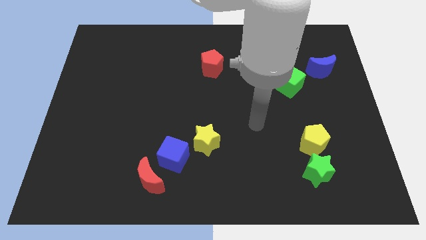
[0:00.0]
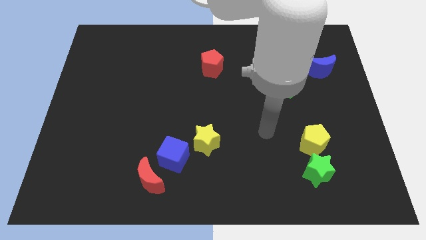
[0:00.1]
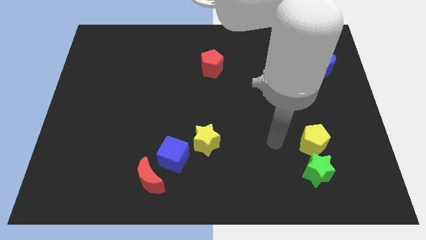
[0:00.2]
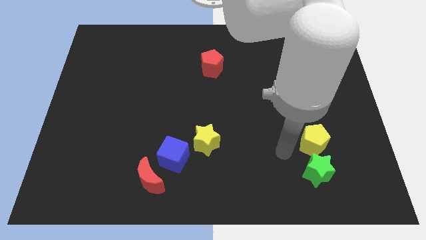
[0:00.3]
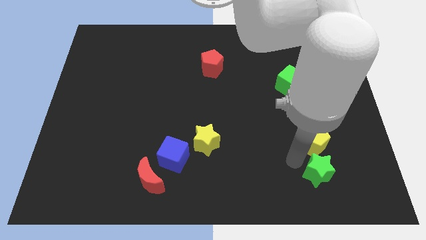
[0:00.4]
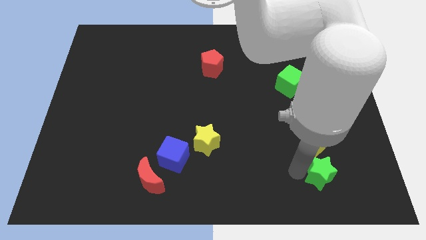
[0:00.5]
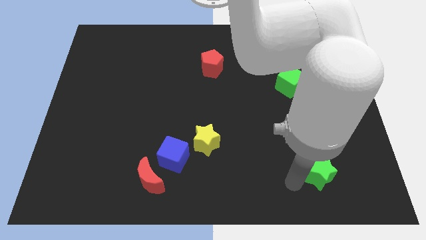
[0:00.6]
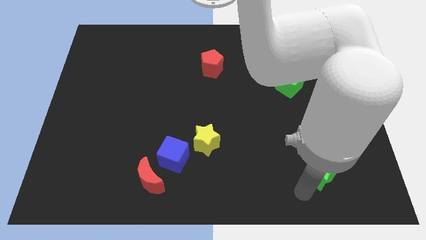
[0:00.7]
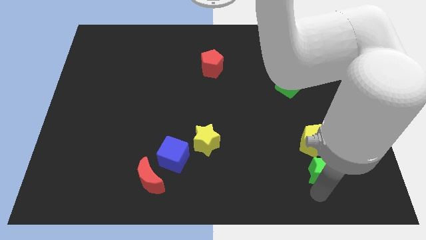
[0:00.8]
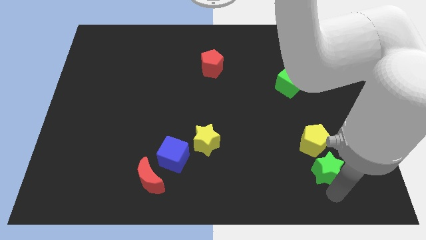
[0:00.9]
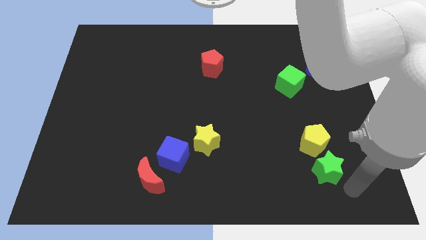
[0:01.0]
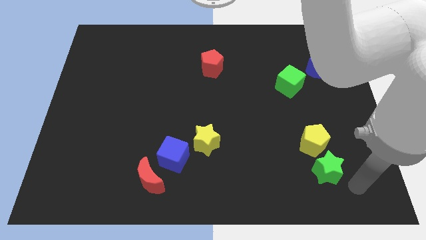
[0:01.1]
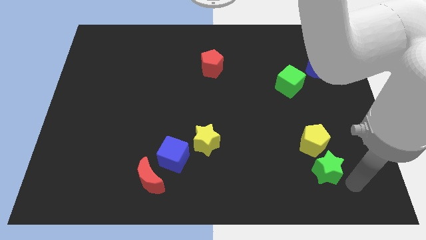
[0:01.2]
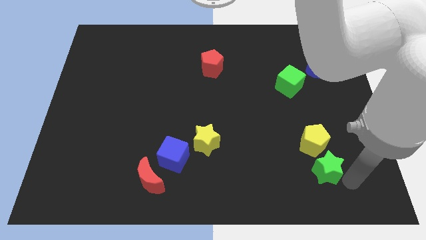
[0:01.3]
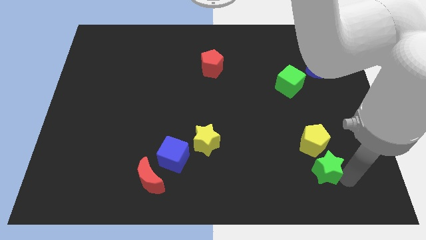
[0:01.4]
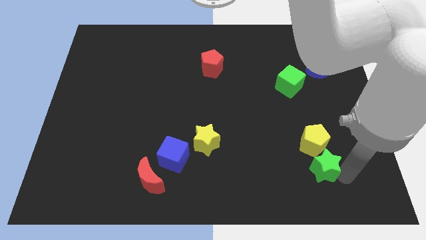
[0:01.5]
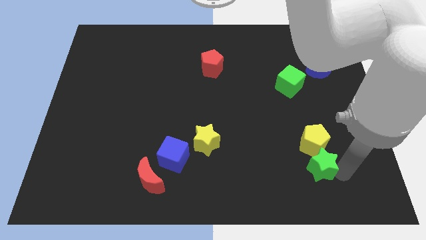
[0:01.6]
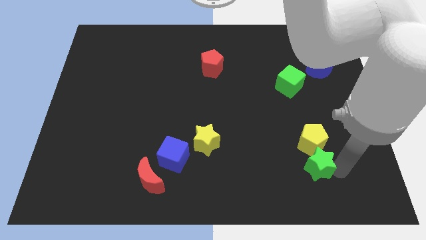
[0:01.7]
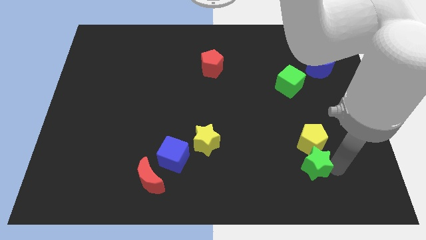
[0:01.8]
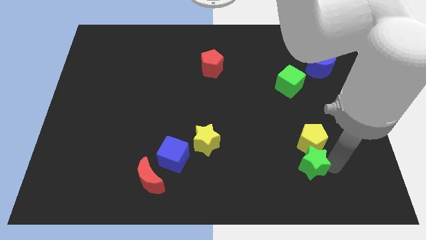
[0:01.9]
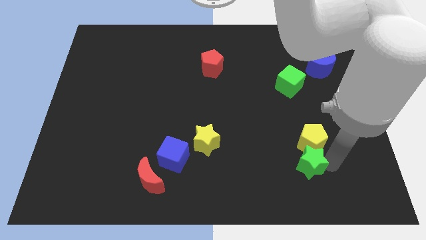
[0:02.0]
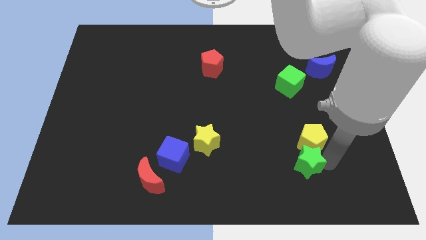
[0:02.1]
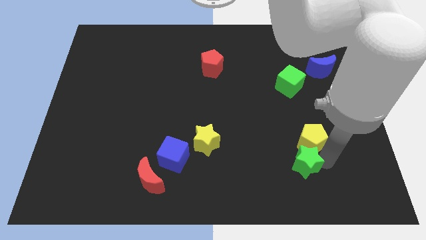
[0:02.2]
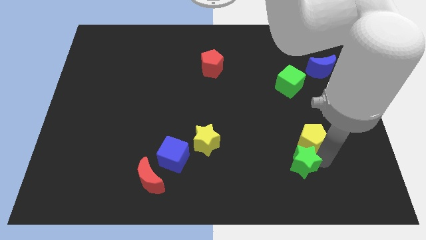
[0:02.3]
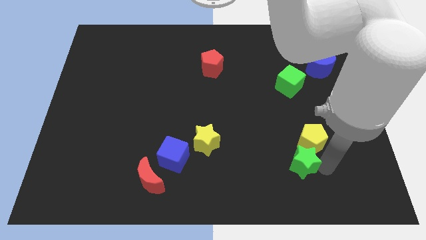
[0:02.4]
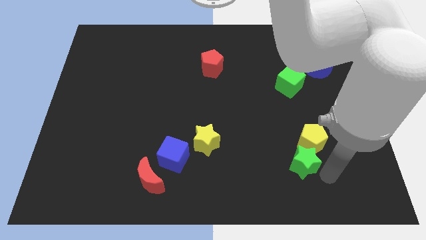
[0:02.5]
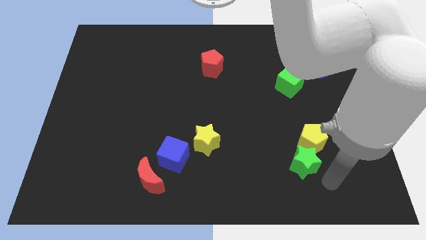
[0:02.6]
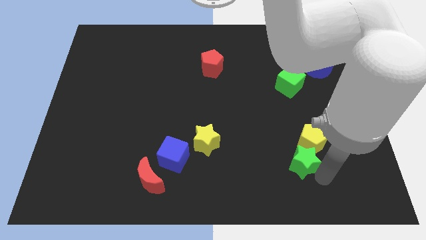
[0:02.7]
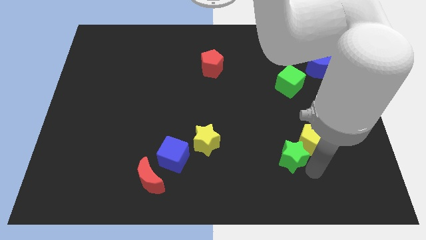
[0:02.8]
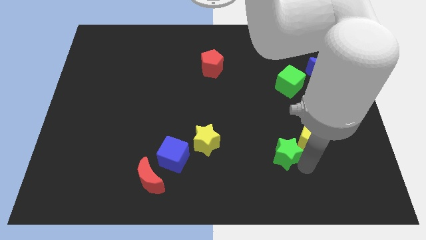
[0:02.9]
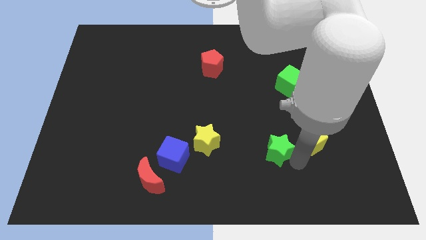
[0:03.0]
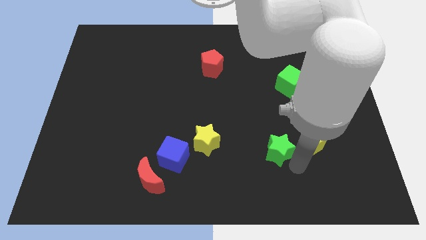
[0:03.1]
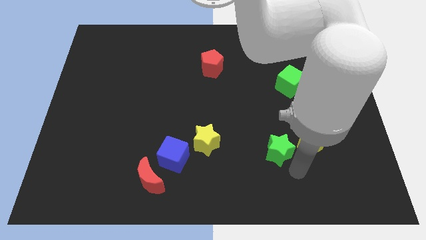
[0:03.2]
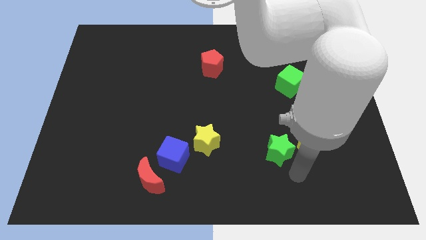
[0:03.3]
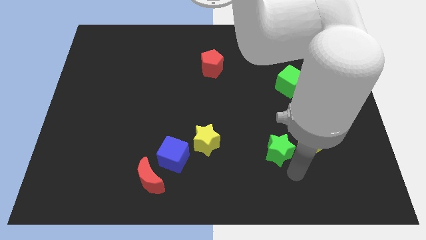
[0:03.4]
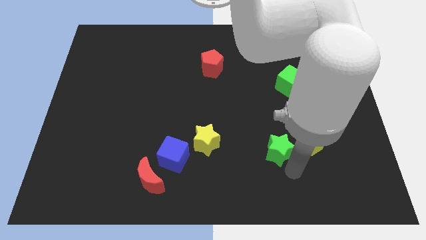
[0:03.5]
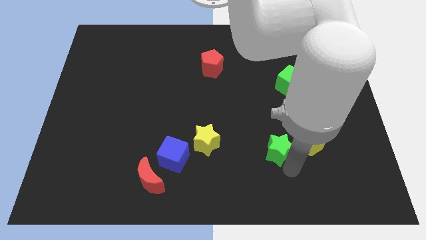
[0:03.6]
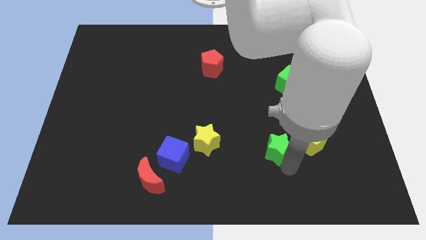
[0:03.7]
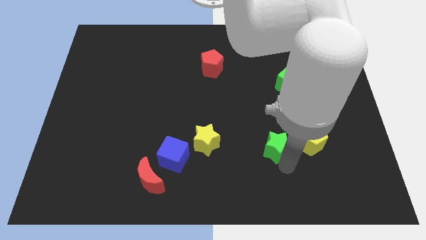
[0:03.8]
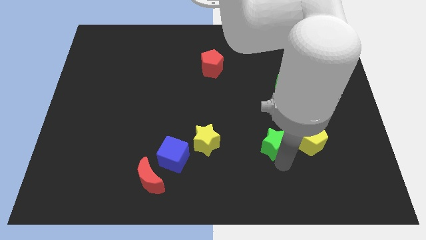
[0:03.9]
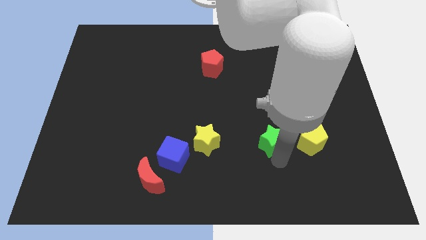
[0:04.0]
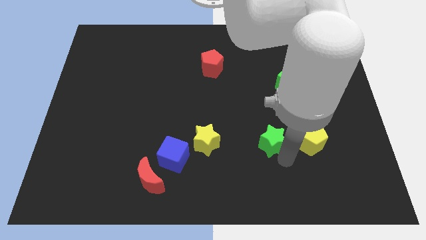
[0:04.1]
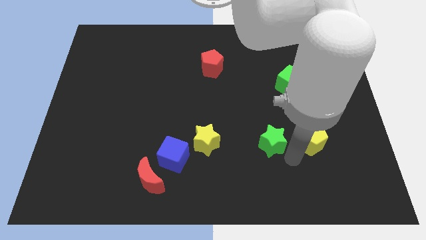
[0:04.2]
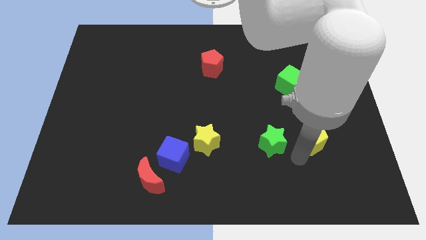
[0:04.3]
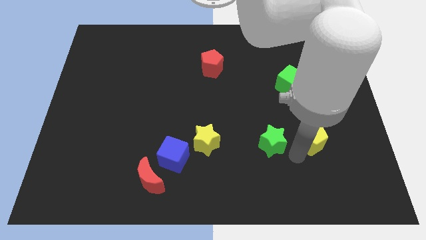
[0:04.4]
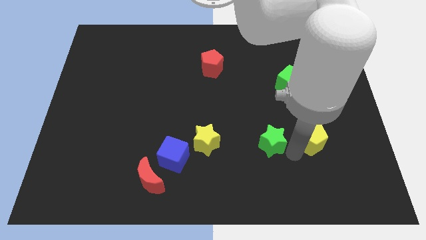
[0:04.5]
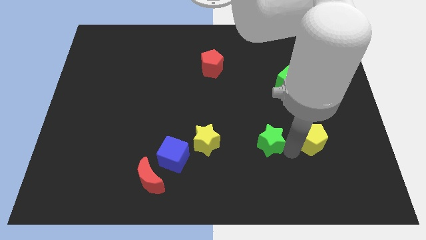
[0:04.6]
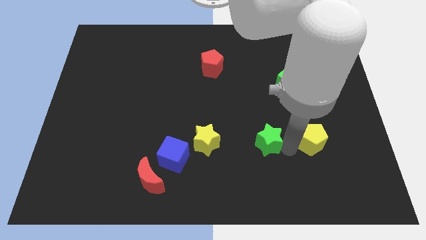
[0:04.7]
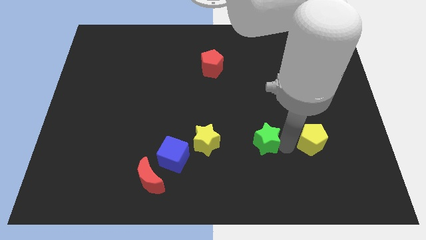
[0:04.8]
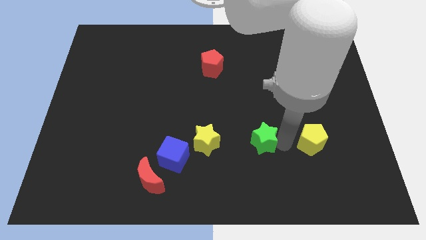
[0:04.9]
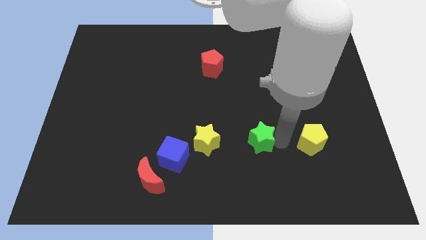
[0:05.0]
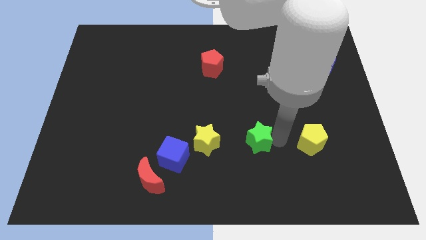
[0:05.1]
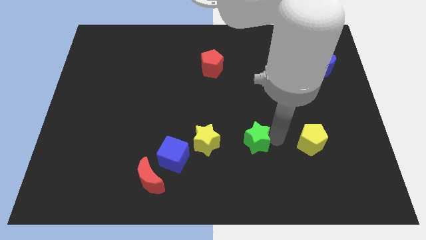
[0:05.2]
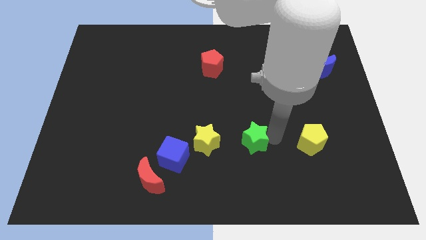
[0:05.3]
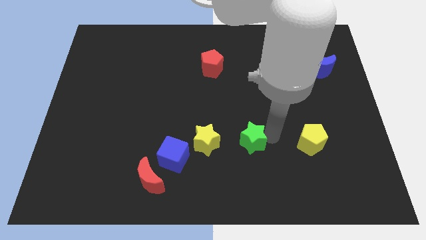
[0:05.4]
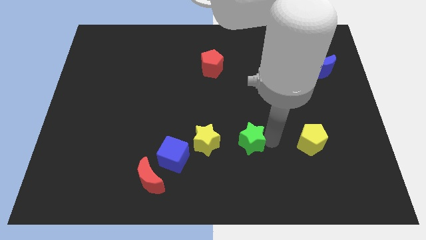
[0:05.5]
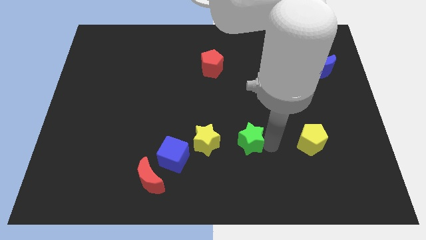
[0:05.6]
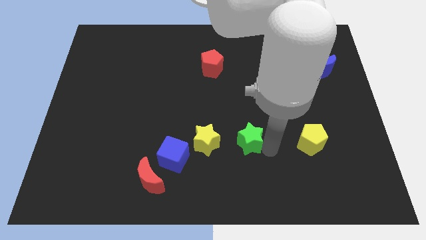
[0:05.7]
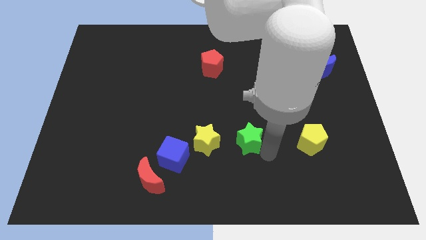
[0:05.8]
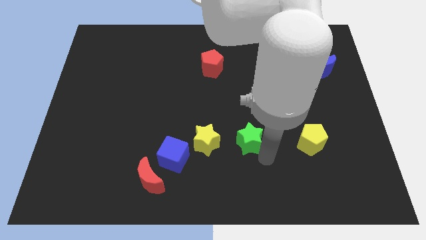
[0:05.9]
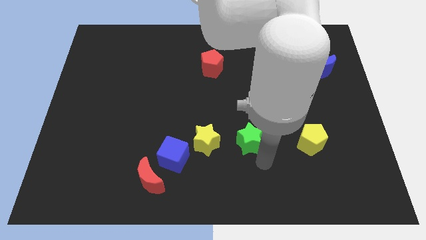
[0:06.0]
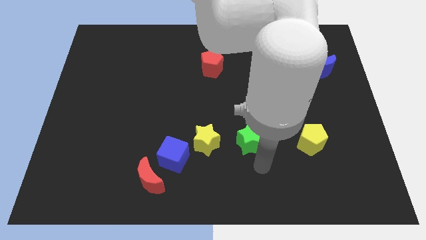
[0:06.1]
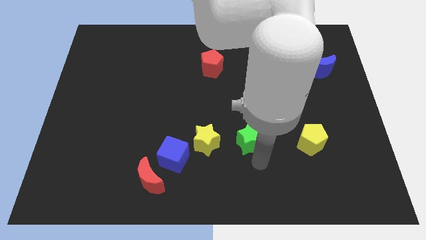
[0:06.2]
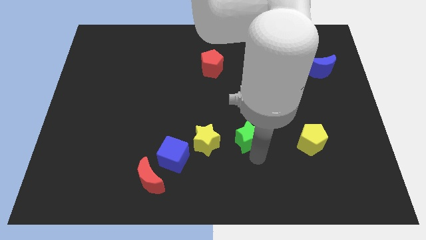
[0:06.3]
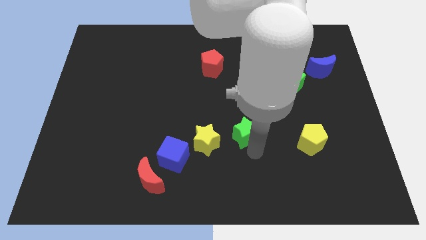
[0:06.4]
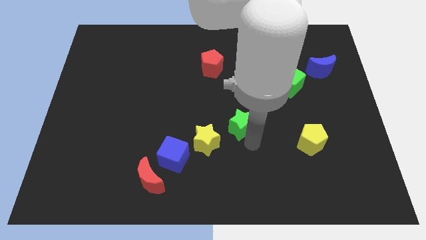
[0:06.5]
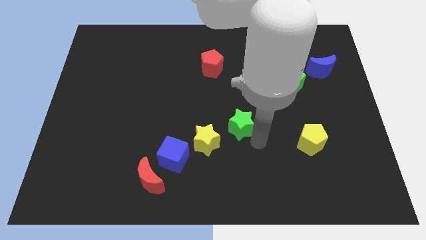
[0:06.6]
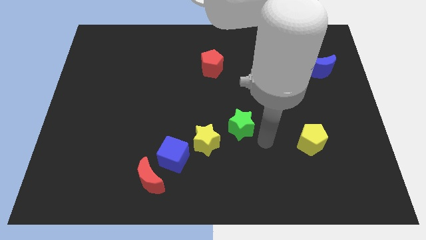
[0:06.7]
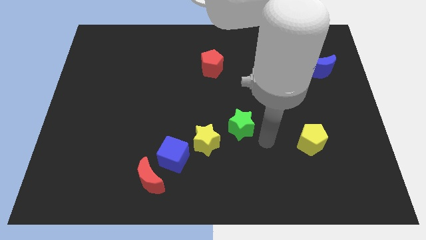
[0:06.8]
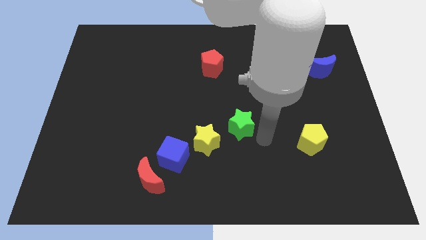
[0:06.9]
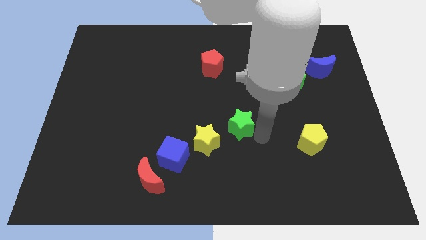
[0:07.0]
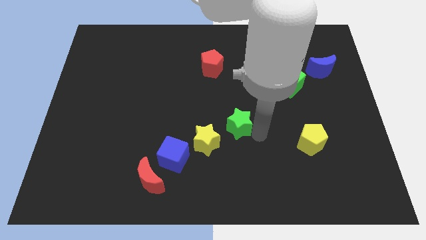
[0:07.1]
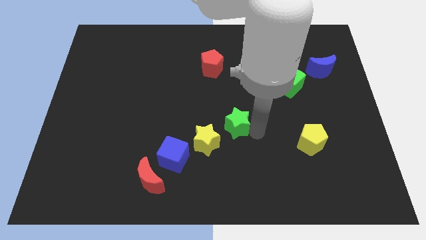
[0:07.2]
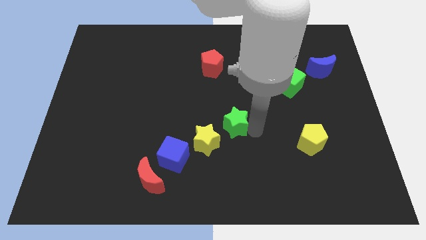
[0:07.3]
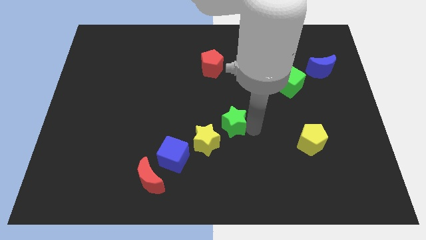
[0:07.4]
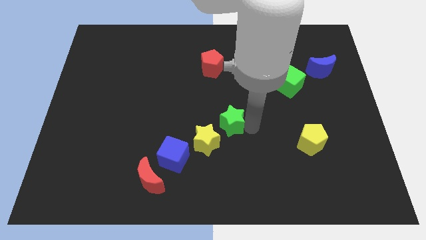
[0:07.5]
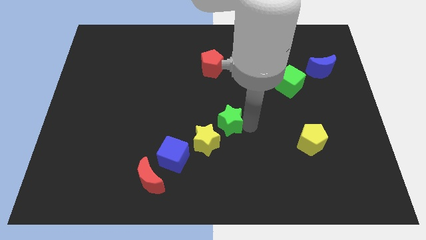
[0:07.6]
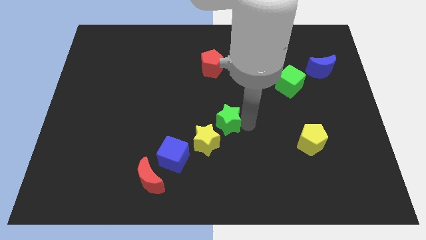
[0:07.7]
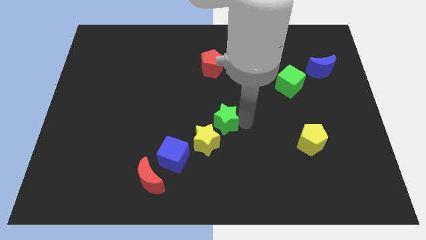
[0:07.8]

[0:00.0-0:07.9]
move the green star to the top of the yellow star
